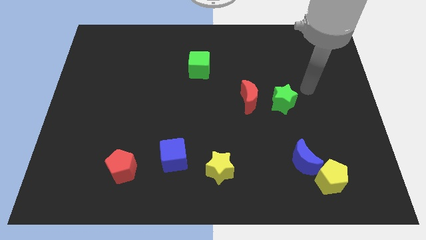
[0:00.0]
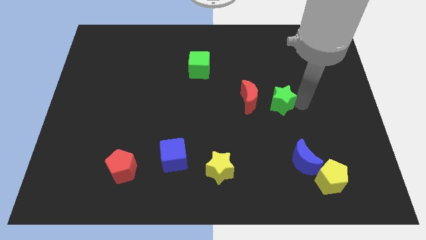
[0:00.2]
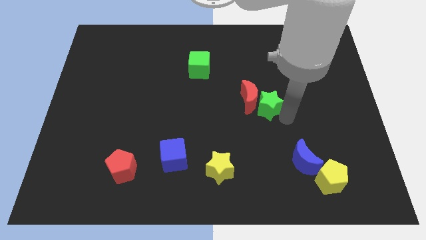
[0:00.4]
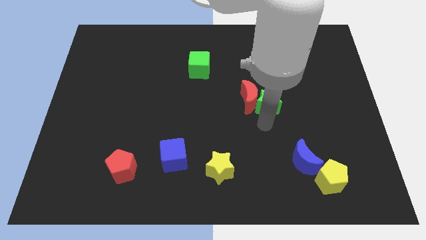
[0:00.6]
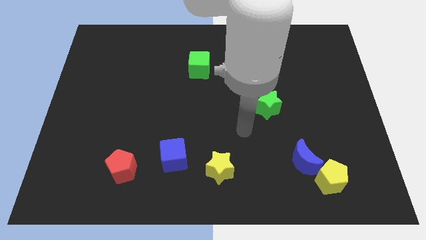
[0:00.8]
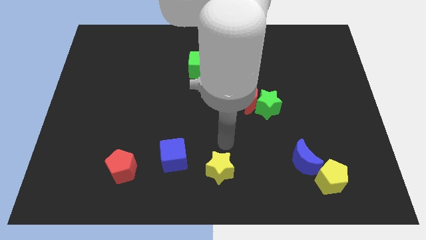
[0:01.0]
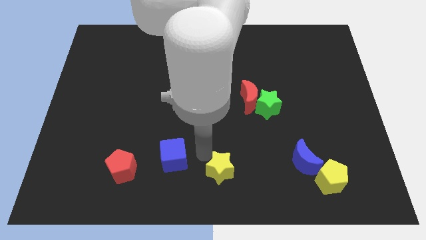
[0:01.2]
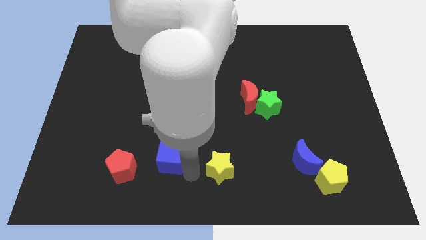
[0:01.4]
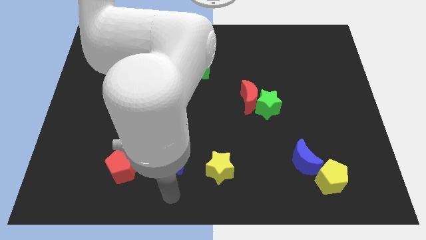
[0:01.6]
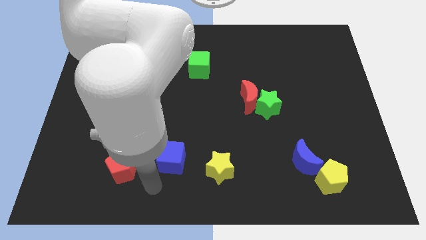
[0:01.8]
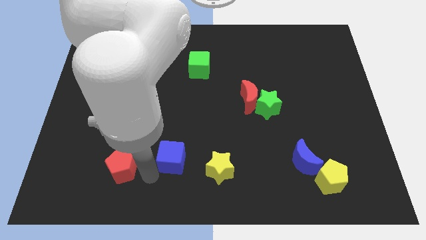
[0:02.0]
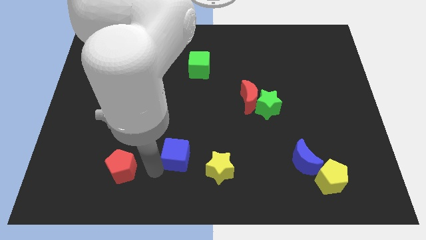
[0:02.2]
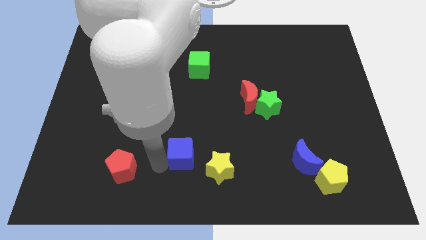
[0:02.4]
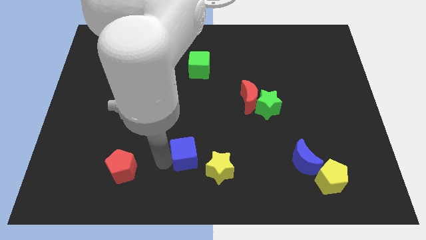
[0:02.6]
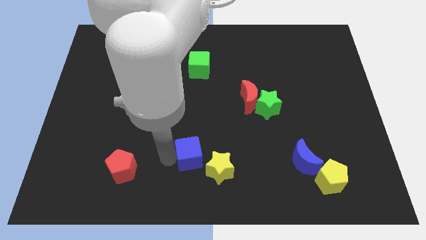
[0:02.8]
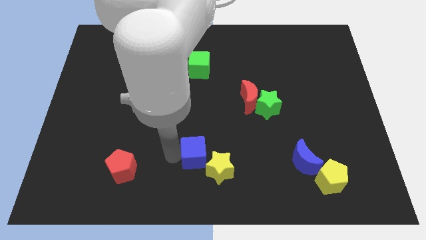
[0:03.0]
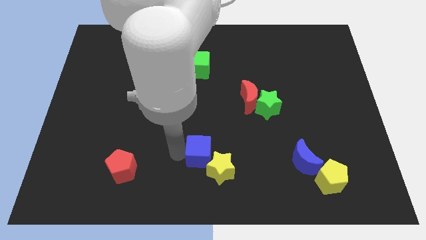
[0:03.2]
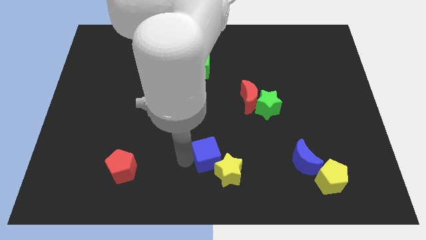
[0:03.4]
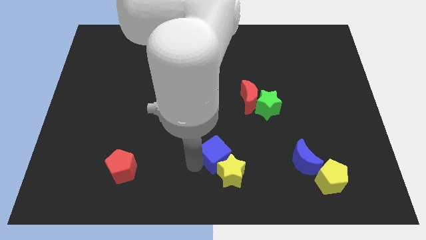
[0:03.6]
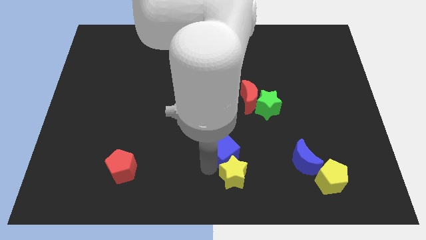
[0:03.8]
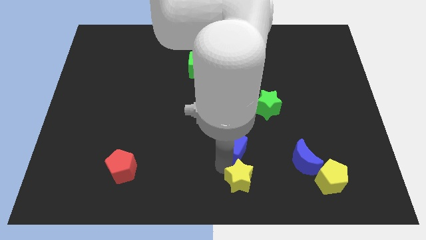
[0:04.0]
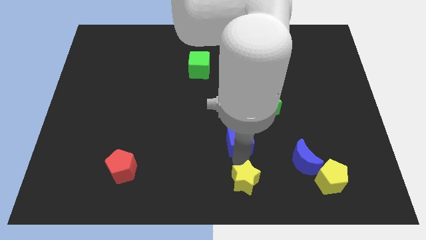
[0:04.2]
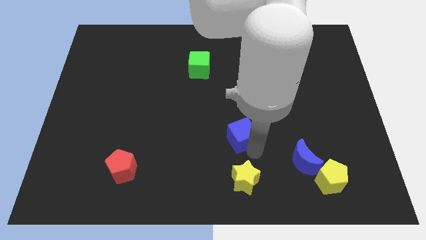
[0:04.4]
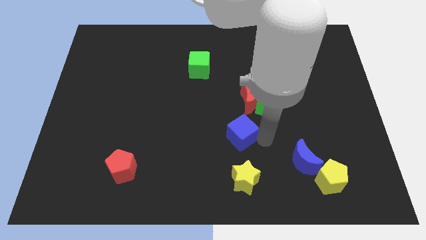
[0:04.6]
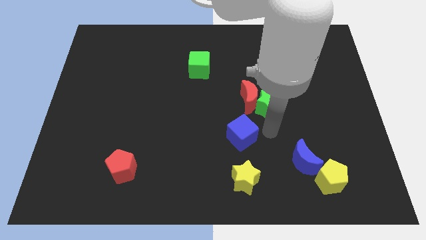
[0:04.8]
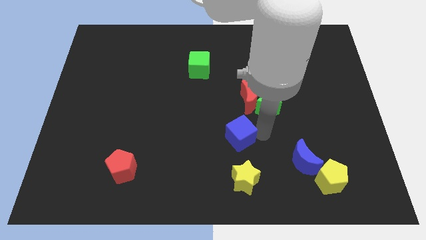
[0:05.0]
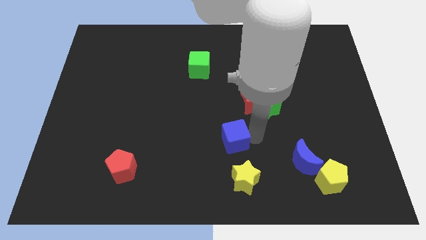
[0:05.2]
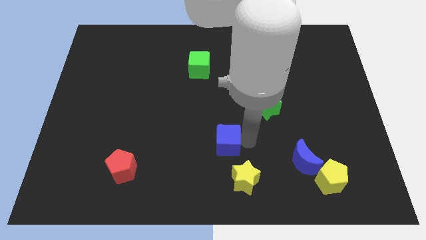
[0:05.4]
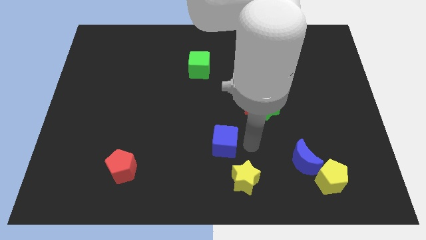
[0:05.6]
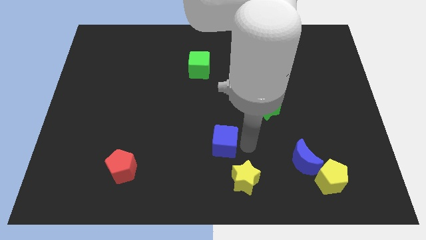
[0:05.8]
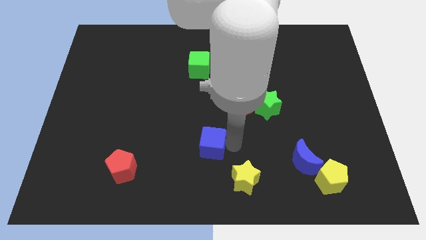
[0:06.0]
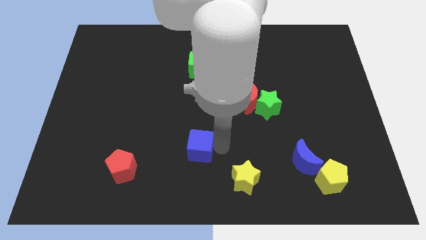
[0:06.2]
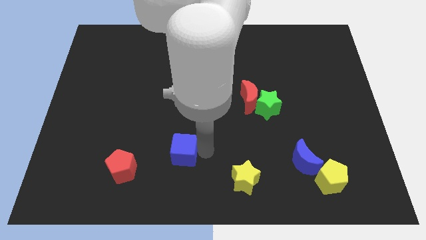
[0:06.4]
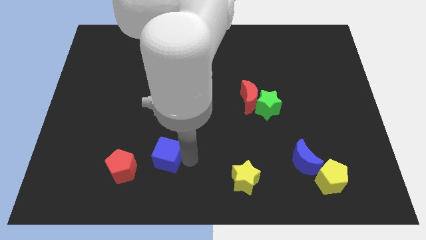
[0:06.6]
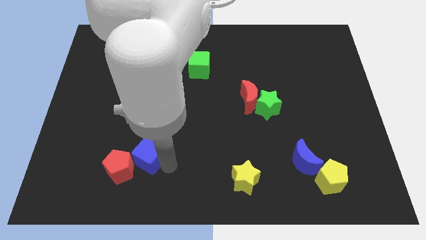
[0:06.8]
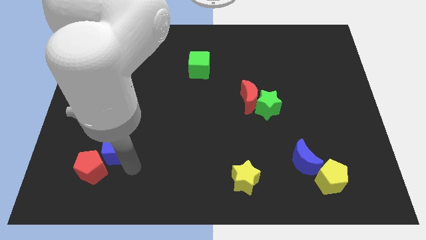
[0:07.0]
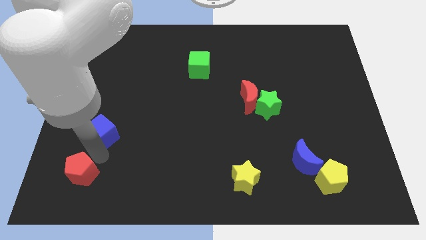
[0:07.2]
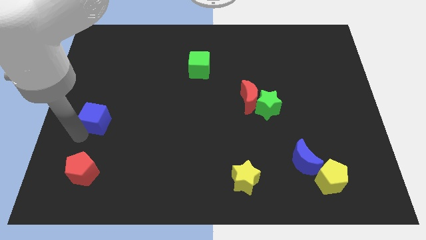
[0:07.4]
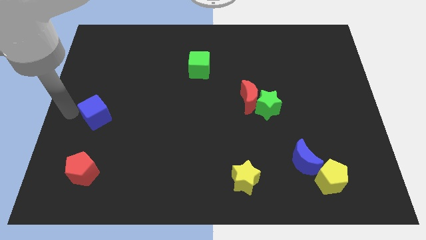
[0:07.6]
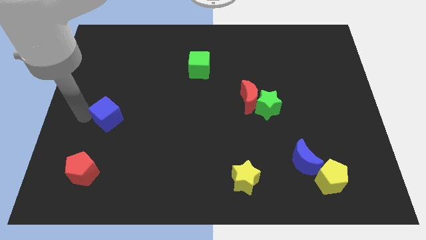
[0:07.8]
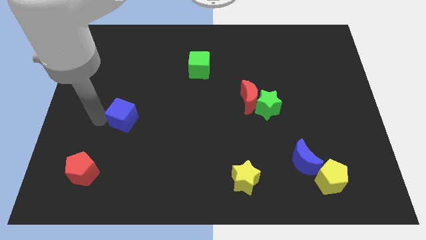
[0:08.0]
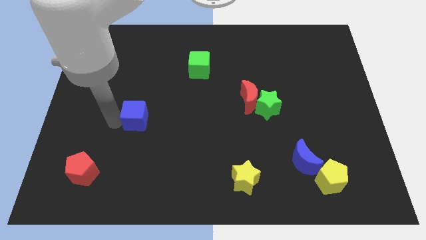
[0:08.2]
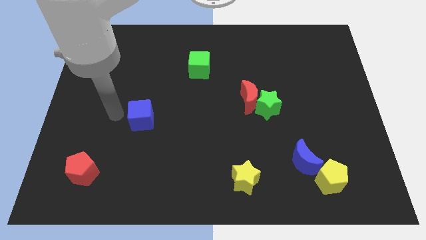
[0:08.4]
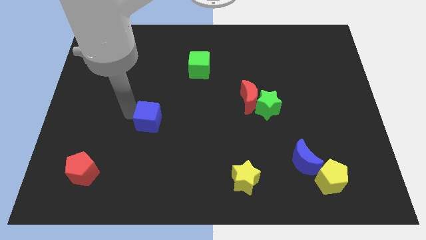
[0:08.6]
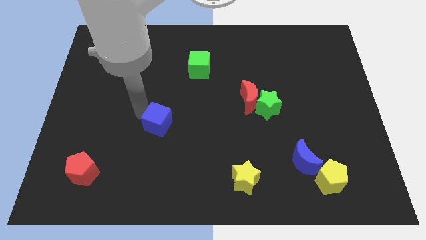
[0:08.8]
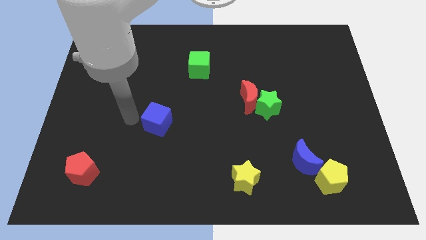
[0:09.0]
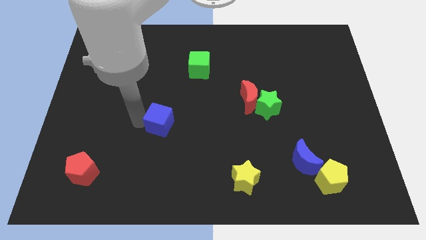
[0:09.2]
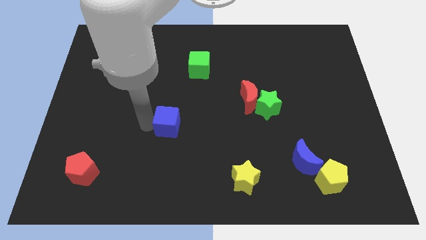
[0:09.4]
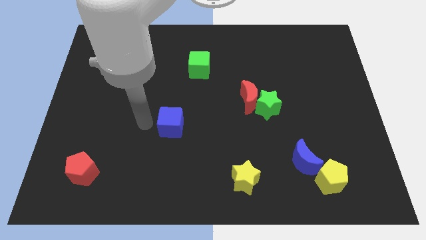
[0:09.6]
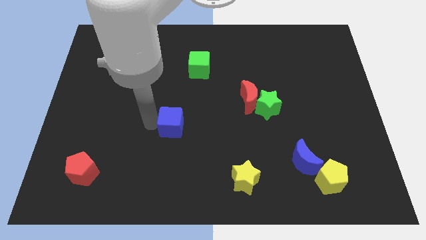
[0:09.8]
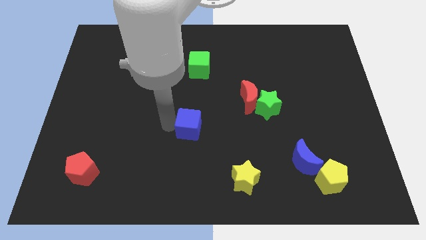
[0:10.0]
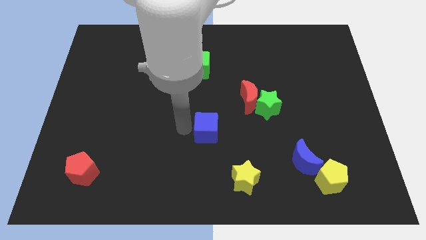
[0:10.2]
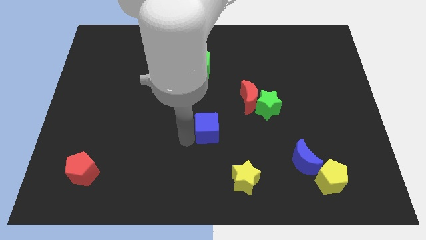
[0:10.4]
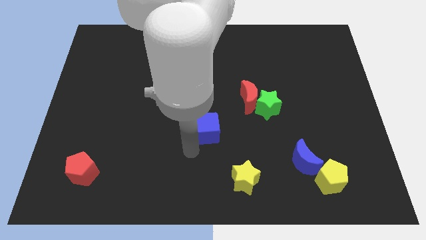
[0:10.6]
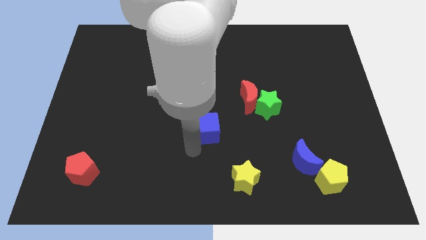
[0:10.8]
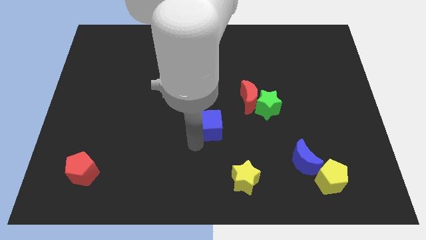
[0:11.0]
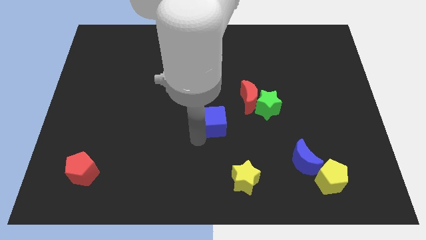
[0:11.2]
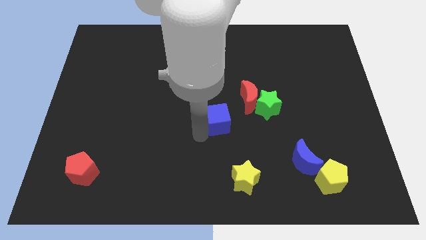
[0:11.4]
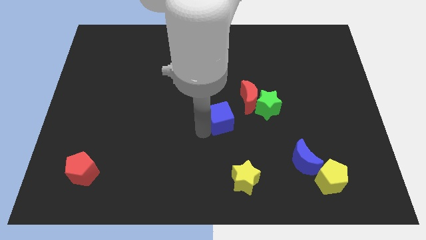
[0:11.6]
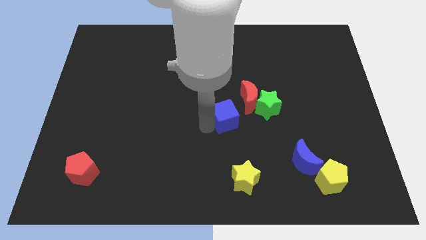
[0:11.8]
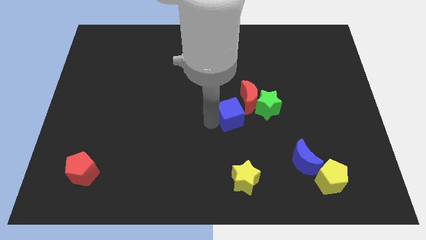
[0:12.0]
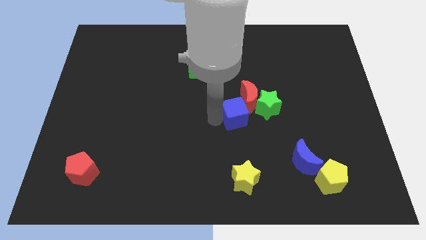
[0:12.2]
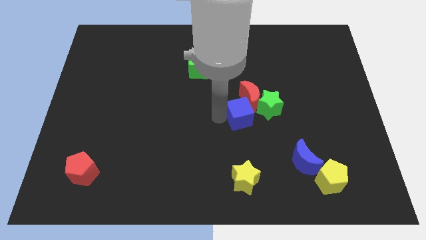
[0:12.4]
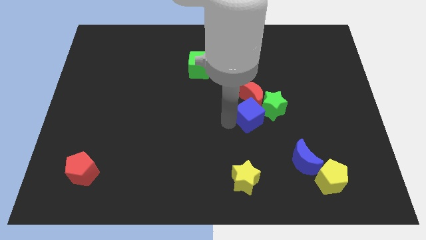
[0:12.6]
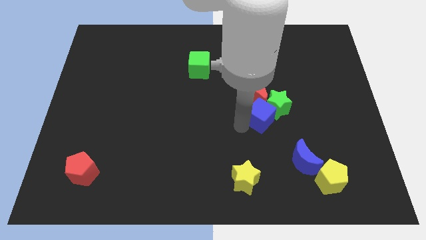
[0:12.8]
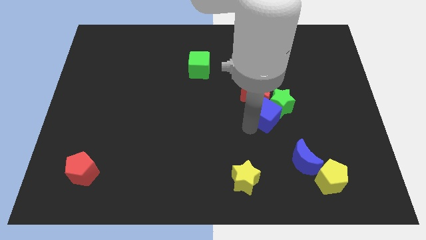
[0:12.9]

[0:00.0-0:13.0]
slide the blue cube diagonally upwards and right

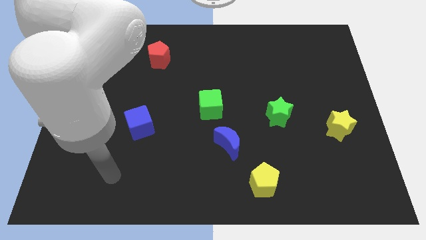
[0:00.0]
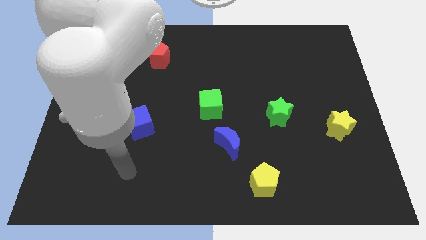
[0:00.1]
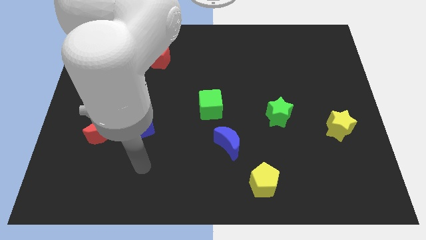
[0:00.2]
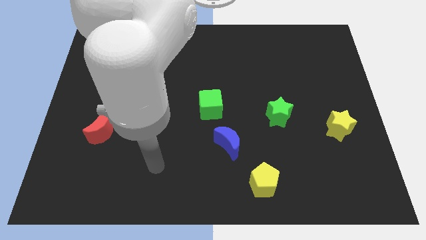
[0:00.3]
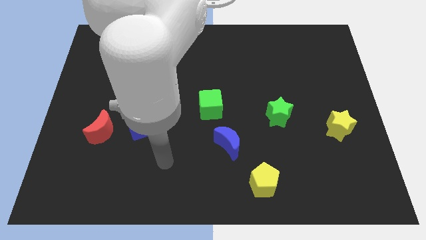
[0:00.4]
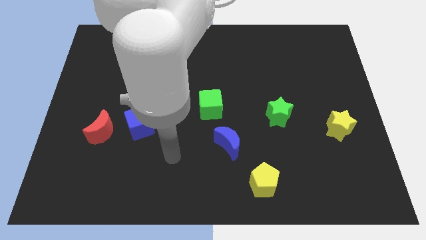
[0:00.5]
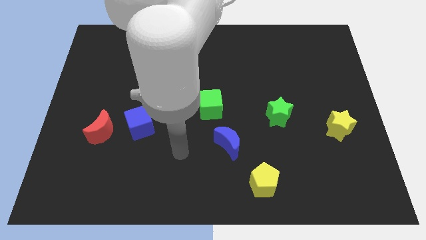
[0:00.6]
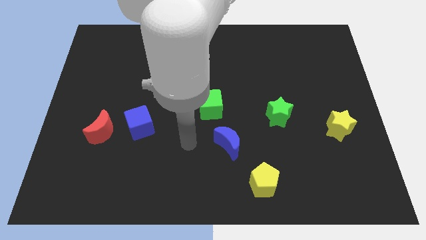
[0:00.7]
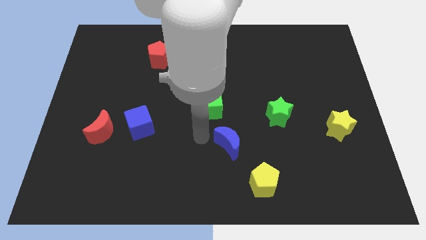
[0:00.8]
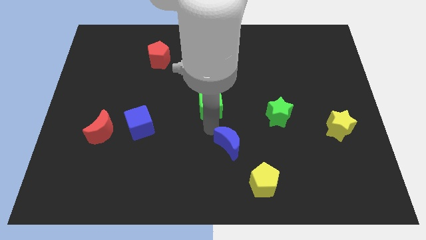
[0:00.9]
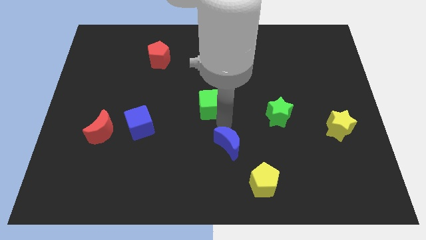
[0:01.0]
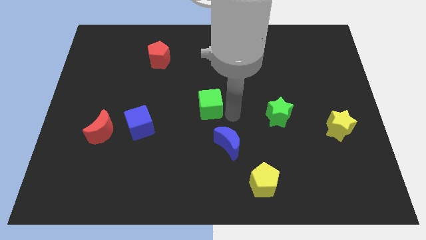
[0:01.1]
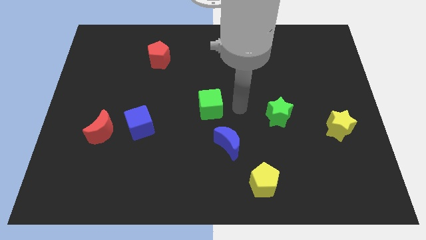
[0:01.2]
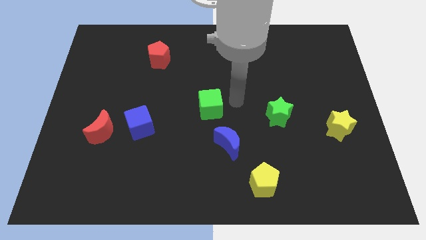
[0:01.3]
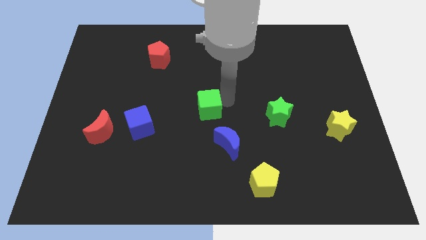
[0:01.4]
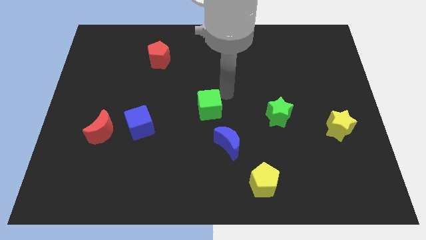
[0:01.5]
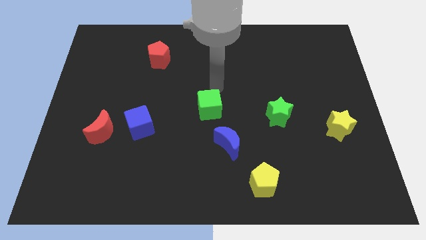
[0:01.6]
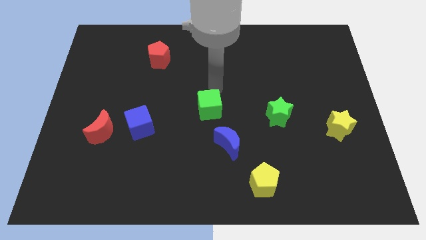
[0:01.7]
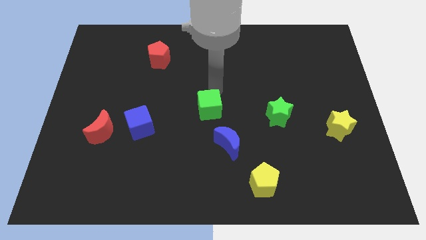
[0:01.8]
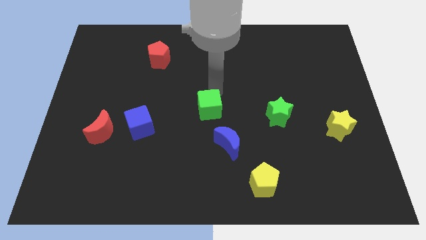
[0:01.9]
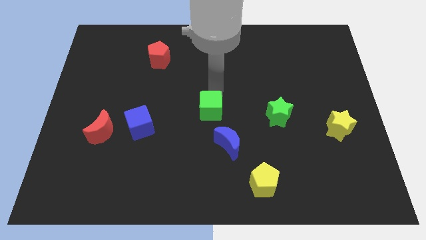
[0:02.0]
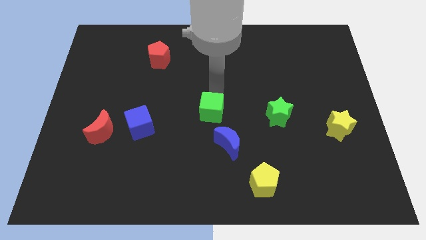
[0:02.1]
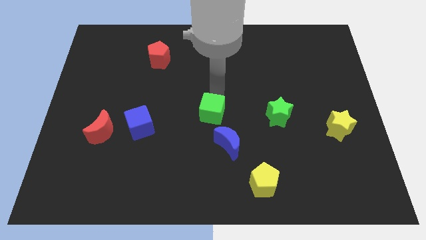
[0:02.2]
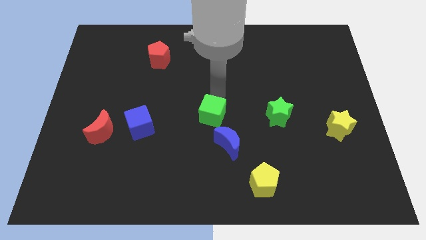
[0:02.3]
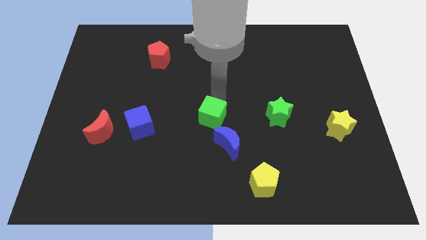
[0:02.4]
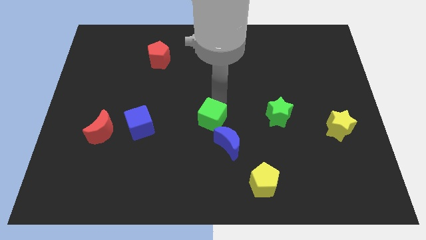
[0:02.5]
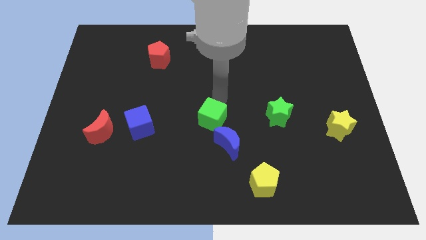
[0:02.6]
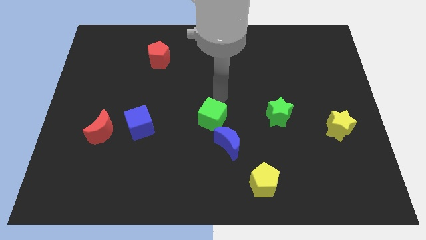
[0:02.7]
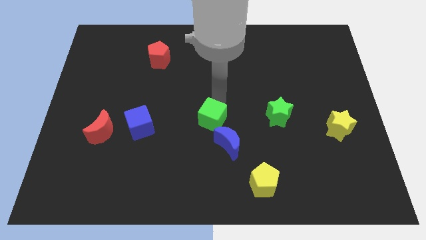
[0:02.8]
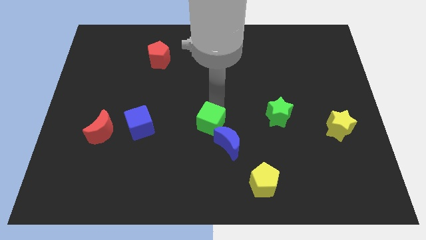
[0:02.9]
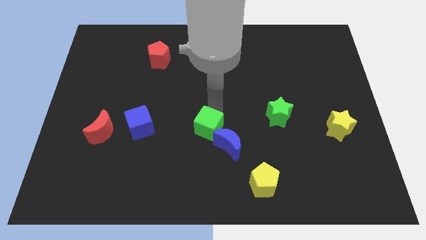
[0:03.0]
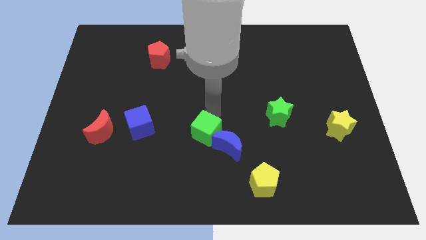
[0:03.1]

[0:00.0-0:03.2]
move the green cube downwards somewhat
